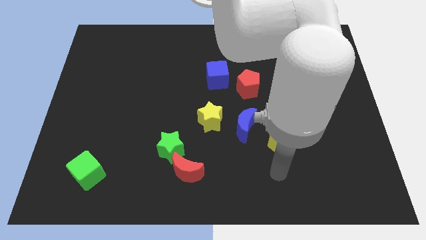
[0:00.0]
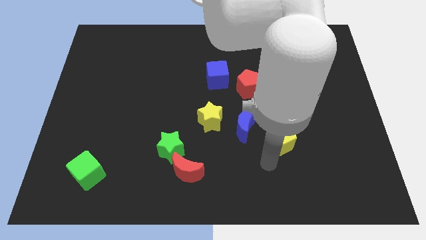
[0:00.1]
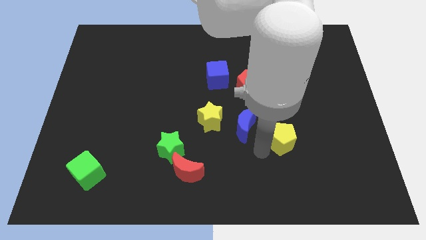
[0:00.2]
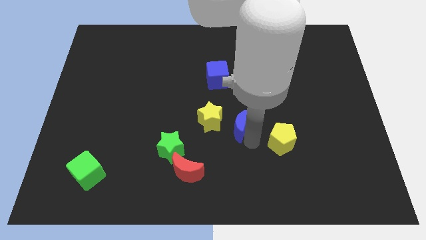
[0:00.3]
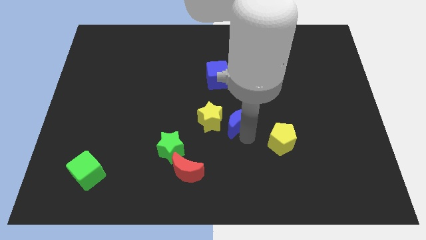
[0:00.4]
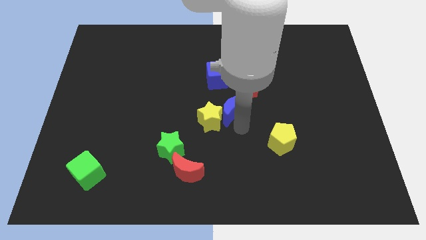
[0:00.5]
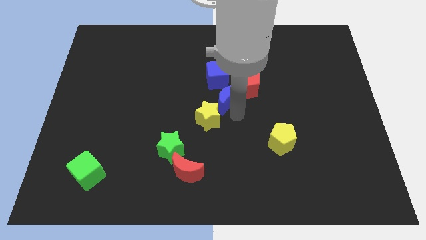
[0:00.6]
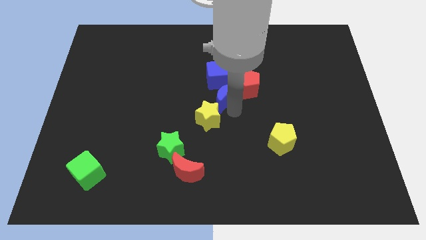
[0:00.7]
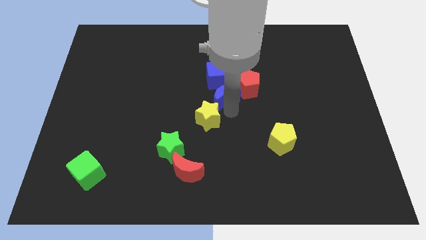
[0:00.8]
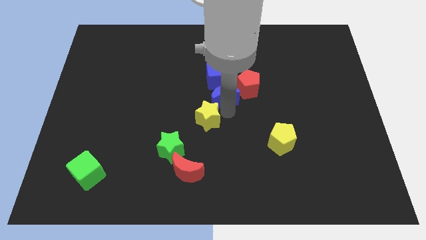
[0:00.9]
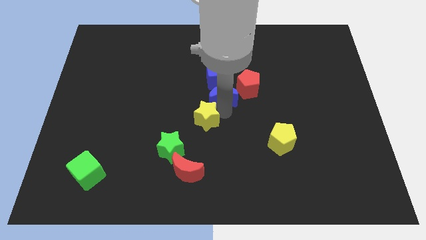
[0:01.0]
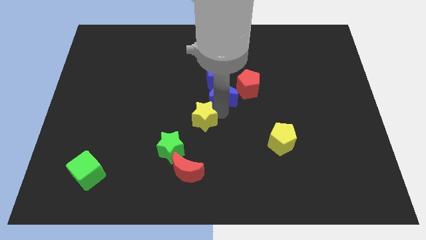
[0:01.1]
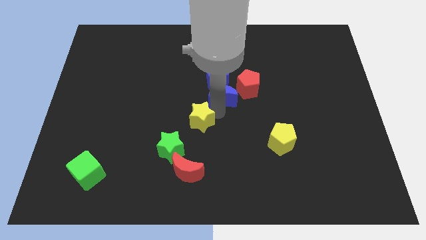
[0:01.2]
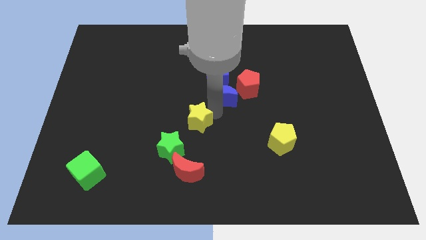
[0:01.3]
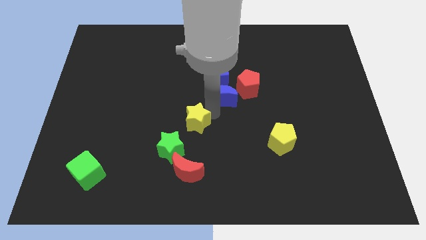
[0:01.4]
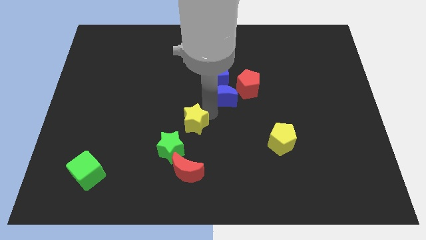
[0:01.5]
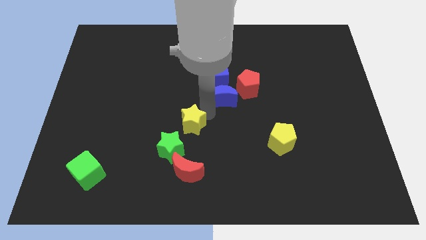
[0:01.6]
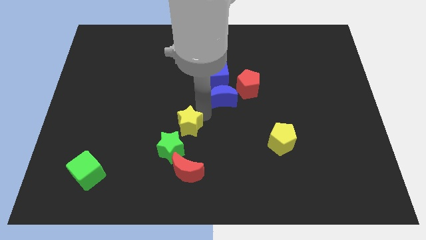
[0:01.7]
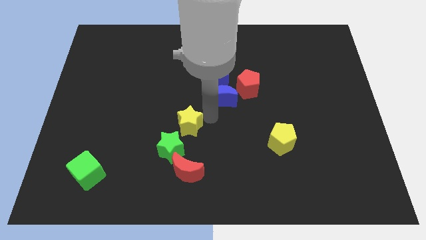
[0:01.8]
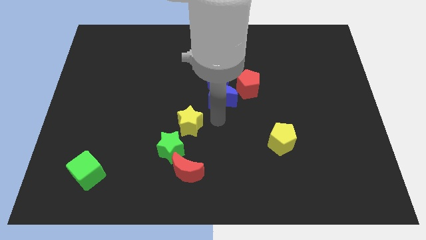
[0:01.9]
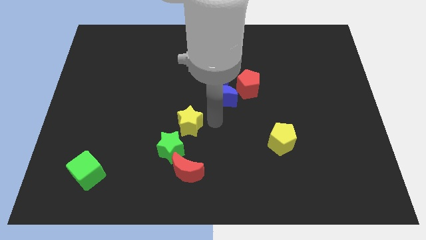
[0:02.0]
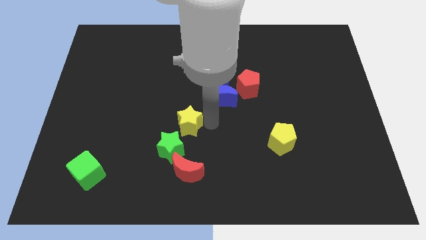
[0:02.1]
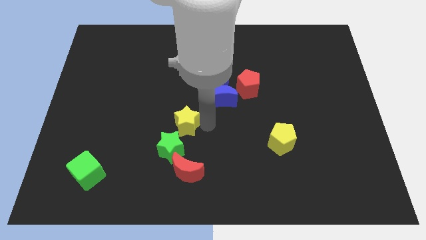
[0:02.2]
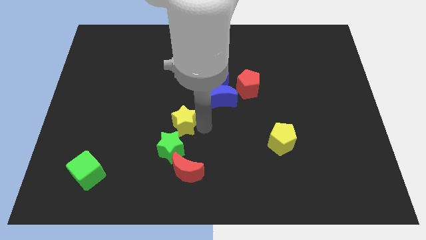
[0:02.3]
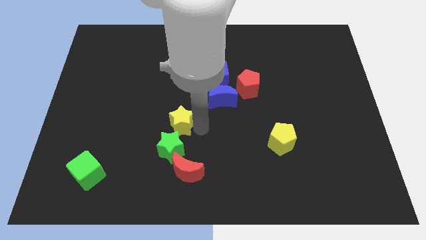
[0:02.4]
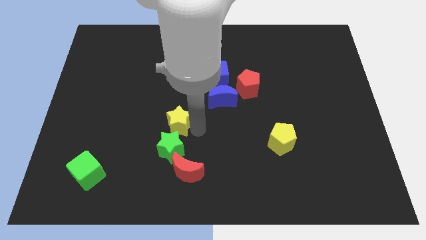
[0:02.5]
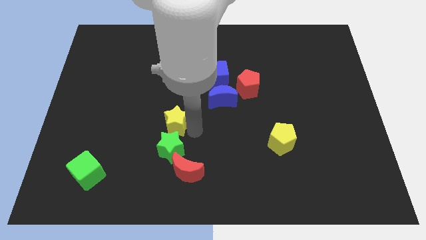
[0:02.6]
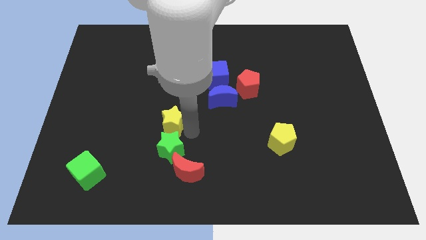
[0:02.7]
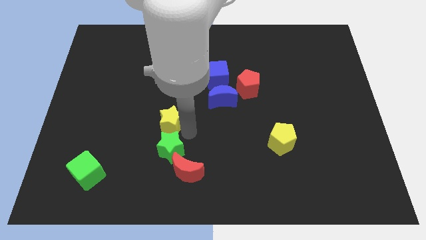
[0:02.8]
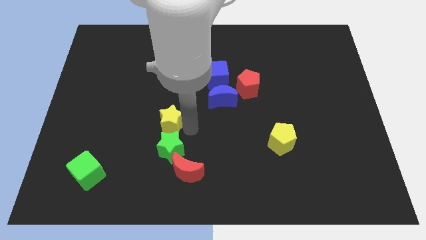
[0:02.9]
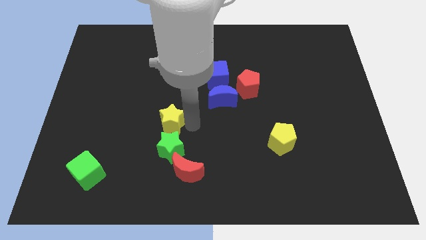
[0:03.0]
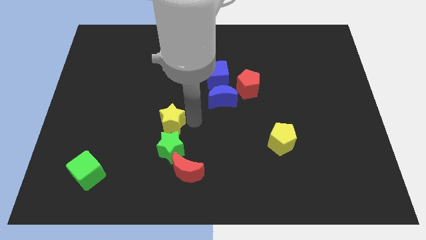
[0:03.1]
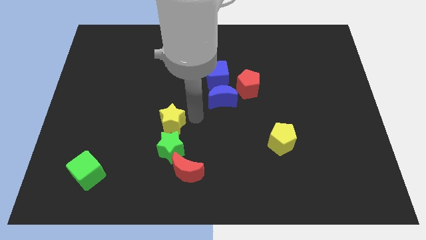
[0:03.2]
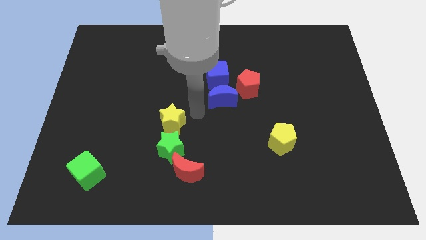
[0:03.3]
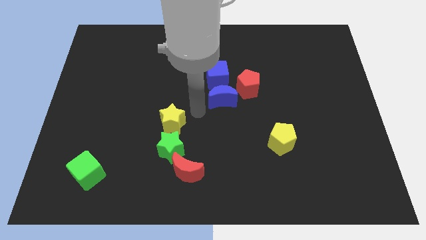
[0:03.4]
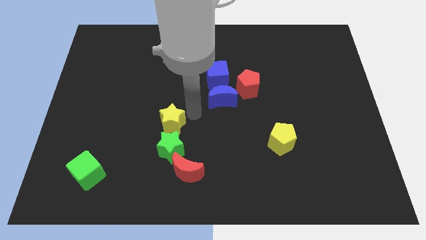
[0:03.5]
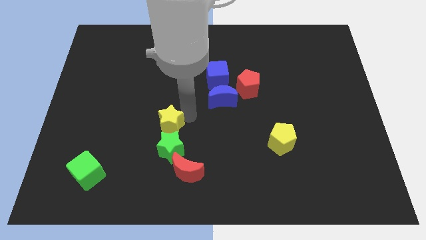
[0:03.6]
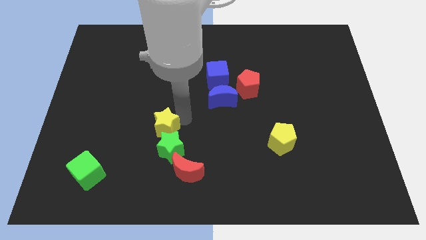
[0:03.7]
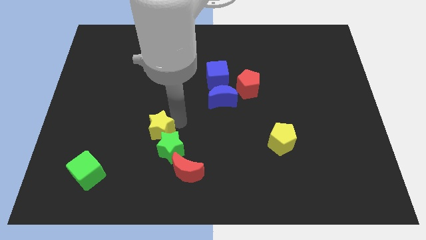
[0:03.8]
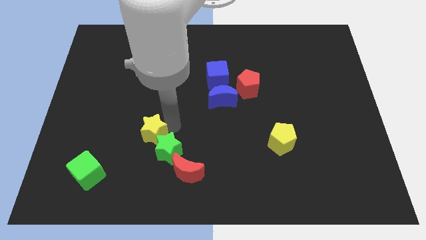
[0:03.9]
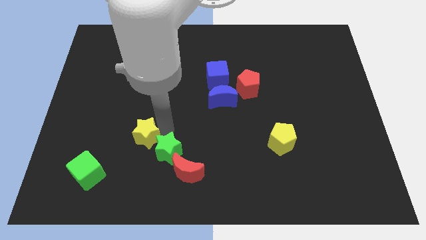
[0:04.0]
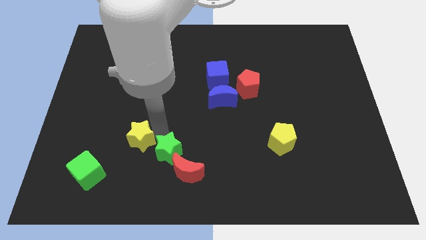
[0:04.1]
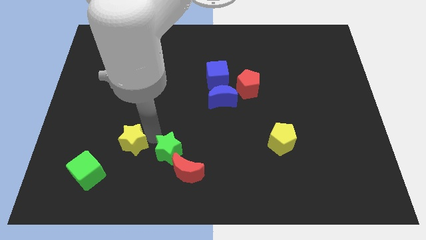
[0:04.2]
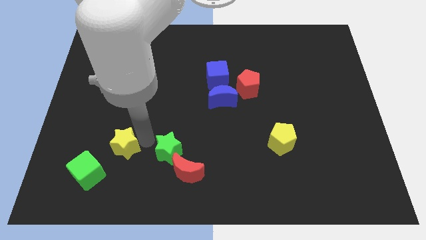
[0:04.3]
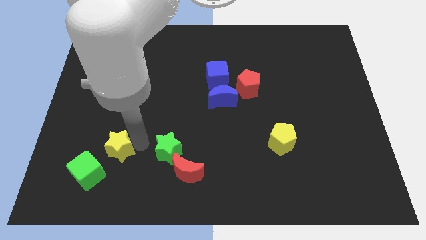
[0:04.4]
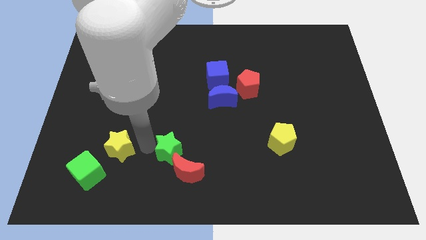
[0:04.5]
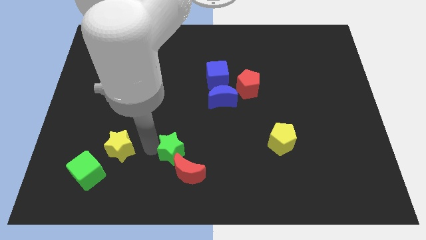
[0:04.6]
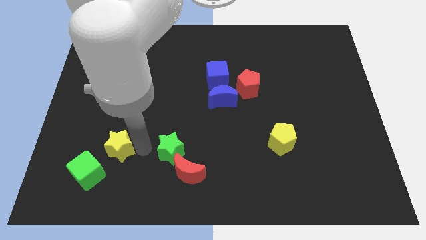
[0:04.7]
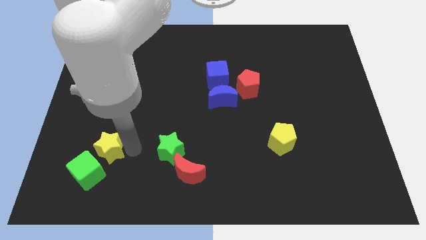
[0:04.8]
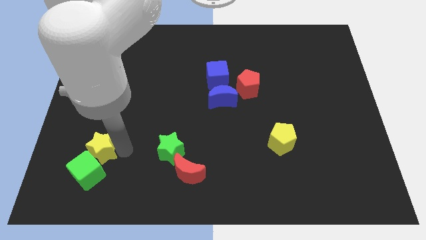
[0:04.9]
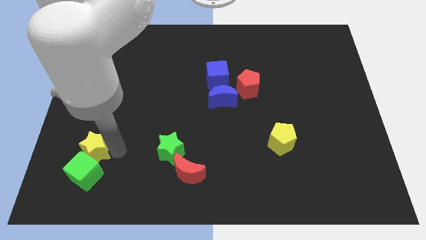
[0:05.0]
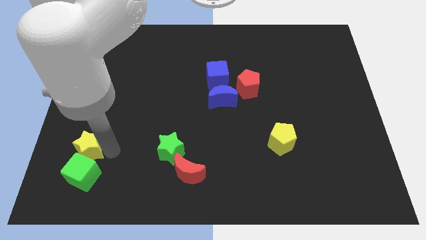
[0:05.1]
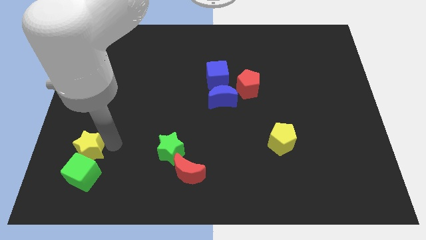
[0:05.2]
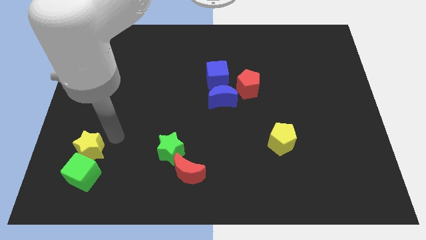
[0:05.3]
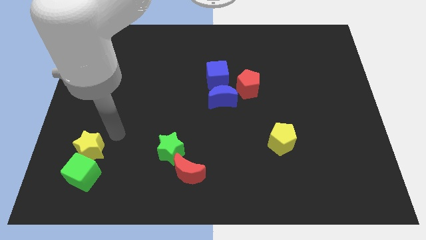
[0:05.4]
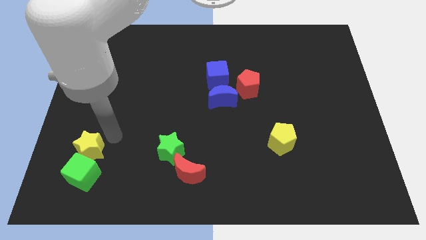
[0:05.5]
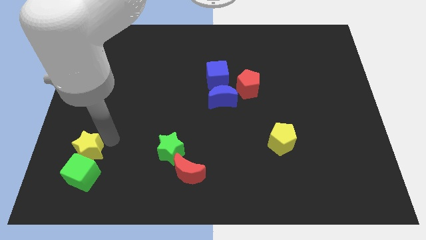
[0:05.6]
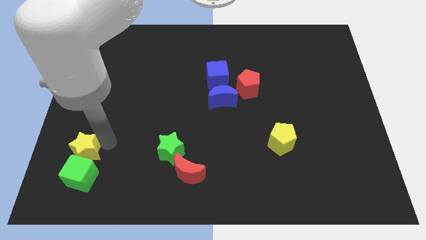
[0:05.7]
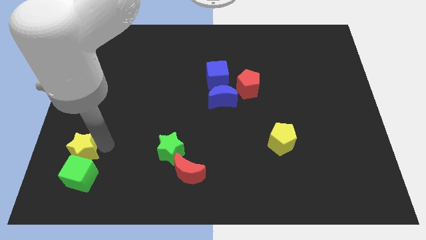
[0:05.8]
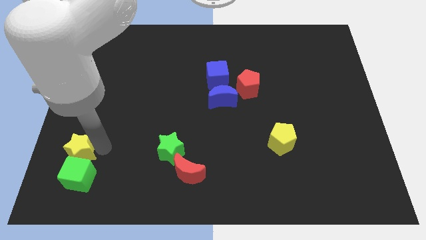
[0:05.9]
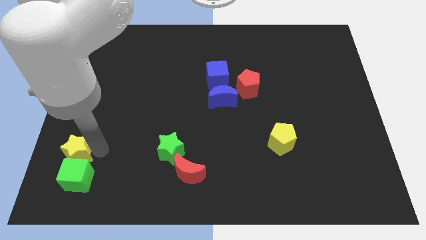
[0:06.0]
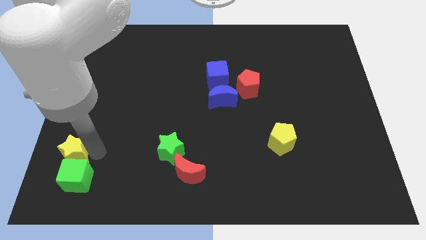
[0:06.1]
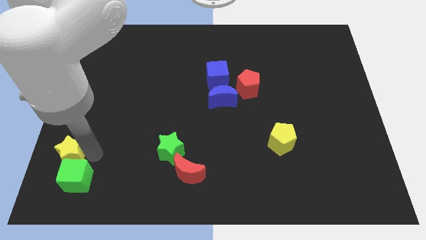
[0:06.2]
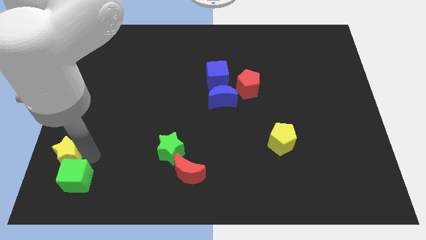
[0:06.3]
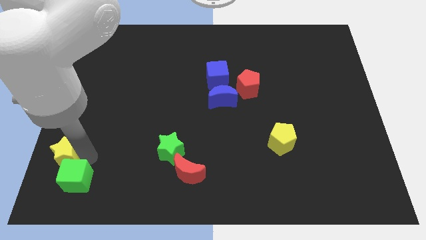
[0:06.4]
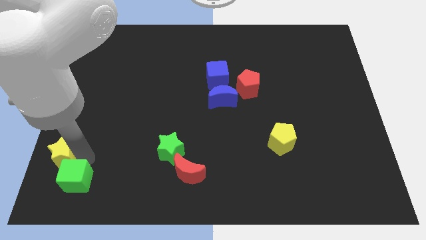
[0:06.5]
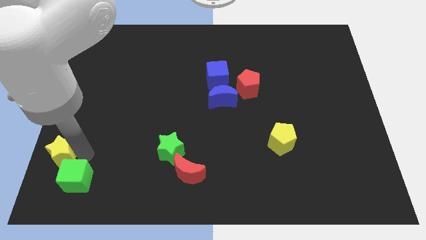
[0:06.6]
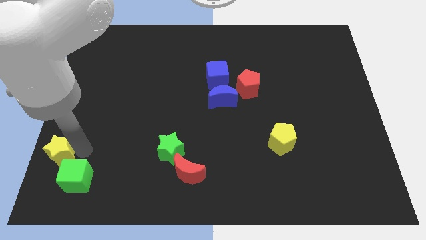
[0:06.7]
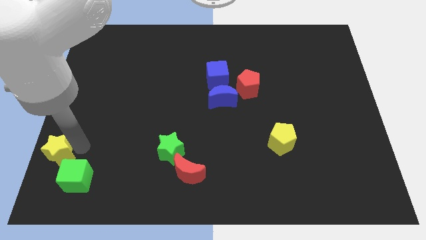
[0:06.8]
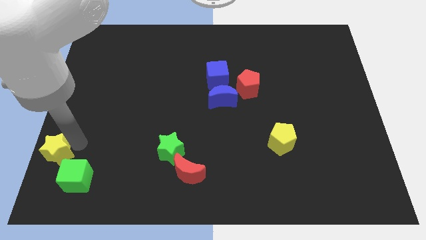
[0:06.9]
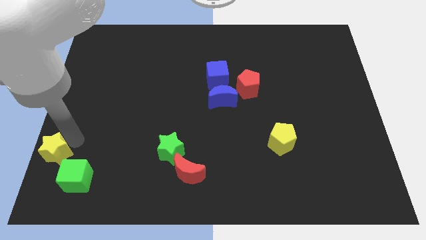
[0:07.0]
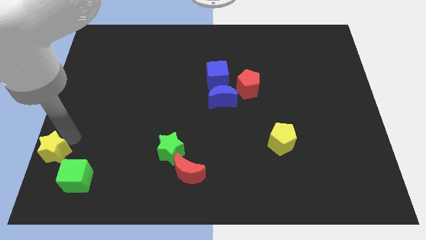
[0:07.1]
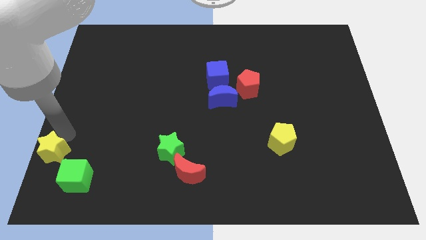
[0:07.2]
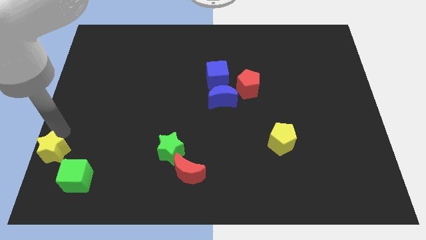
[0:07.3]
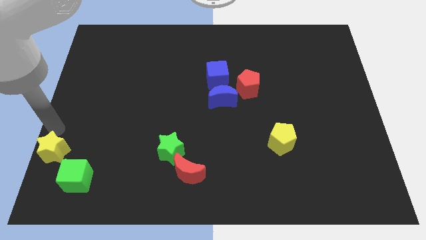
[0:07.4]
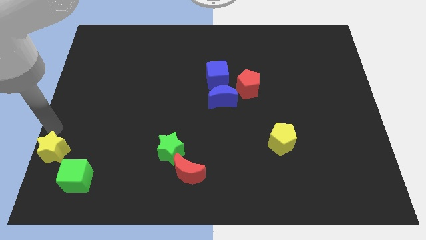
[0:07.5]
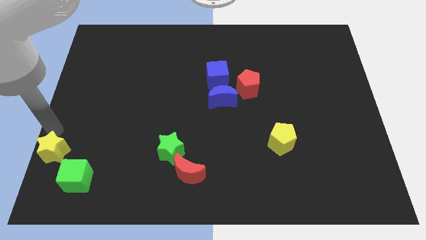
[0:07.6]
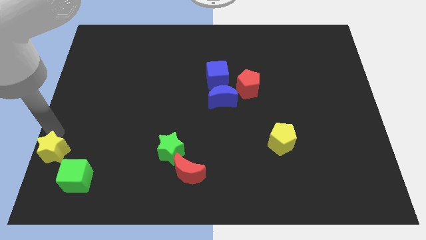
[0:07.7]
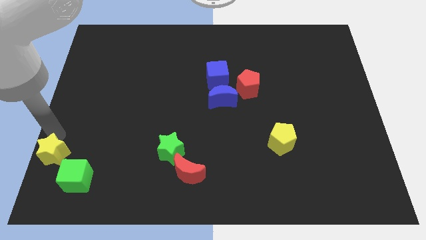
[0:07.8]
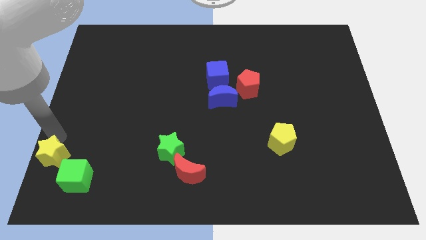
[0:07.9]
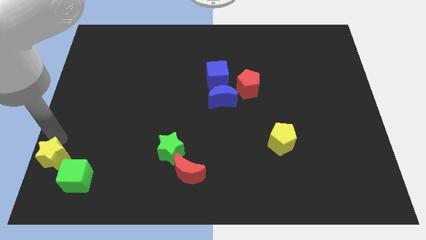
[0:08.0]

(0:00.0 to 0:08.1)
put the yellow star to the bottom left of the board
